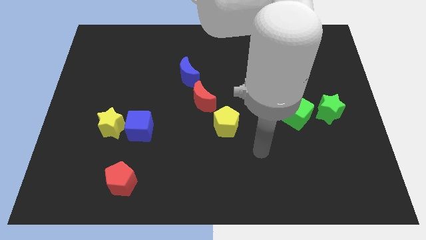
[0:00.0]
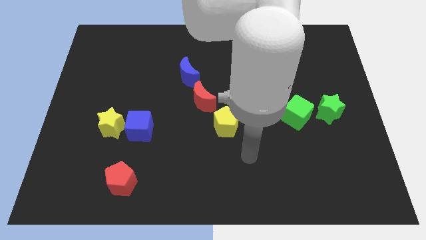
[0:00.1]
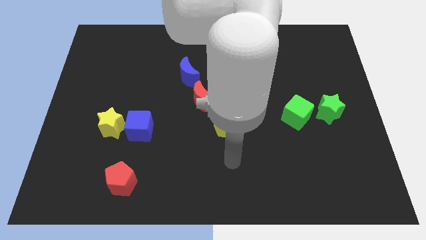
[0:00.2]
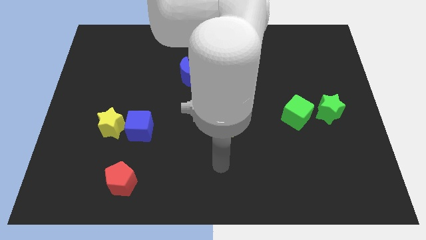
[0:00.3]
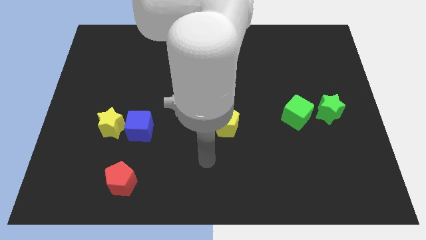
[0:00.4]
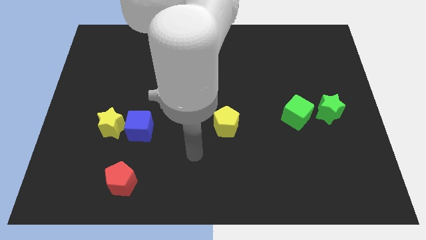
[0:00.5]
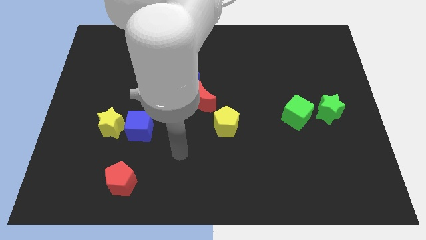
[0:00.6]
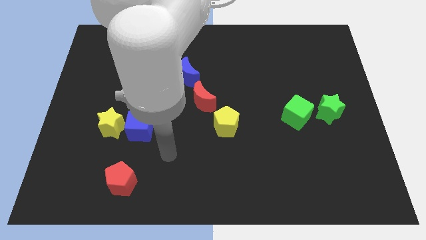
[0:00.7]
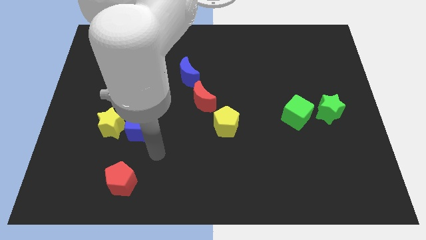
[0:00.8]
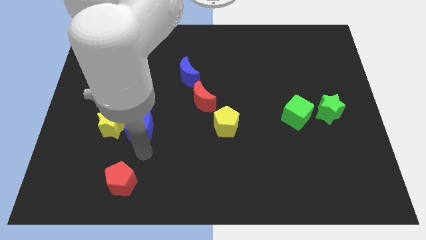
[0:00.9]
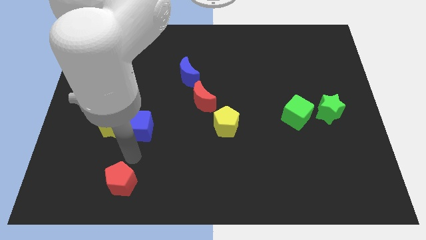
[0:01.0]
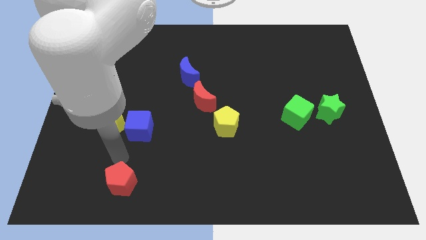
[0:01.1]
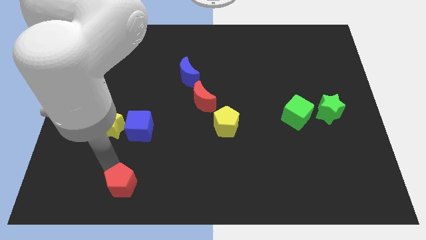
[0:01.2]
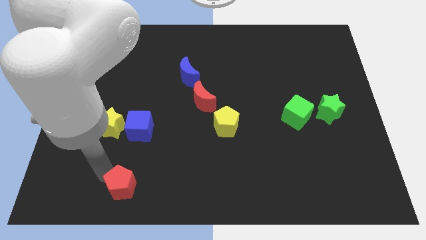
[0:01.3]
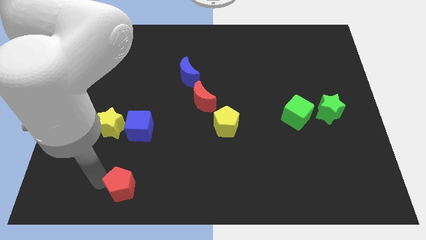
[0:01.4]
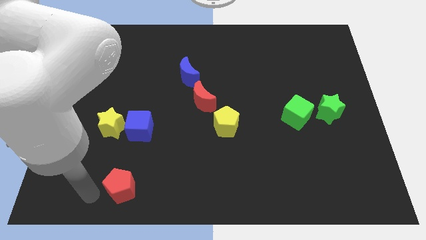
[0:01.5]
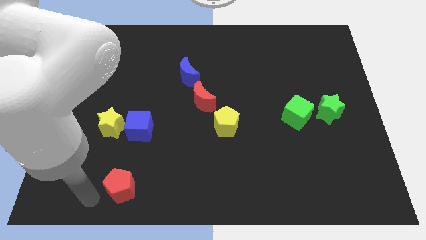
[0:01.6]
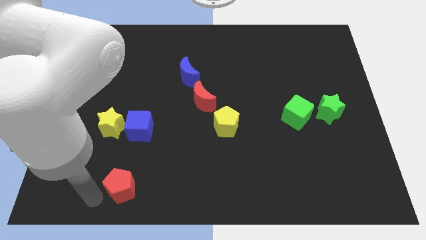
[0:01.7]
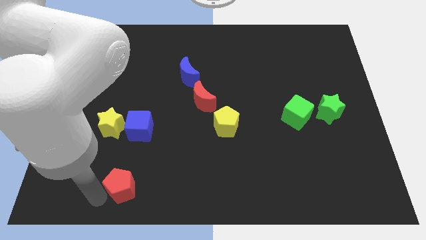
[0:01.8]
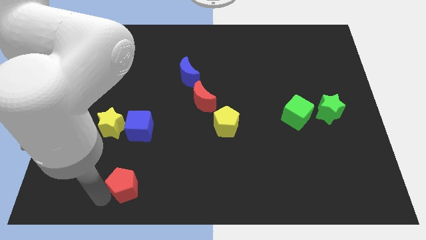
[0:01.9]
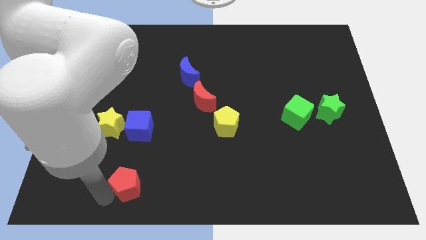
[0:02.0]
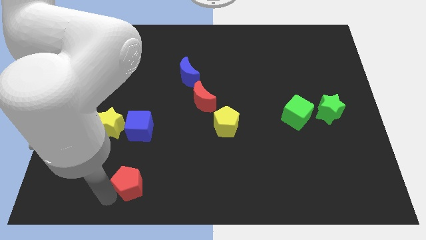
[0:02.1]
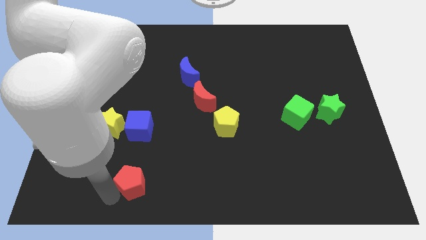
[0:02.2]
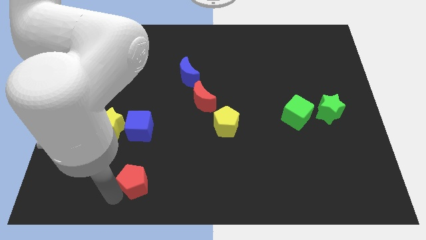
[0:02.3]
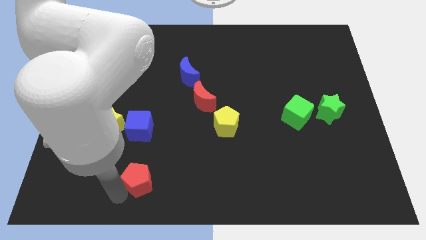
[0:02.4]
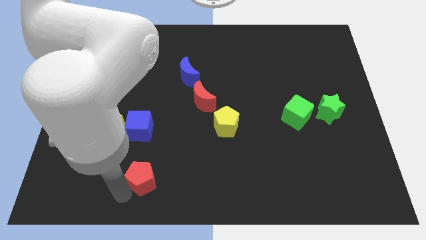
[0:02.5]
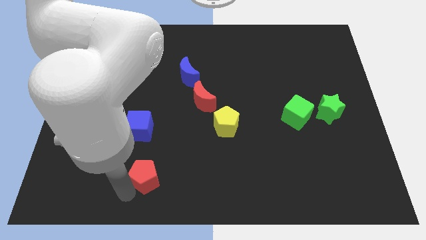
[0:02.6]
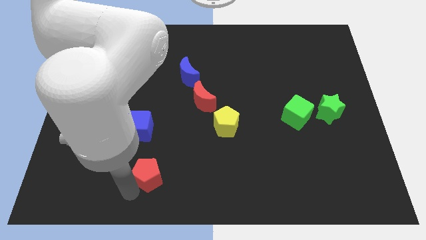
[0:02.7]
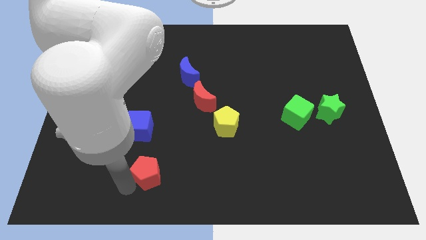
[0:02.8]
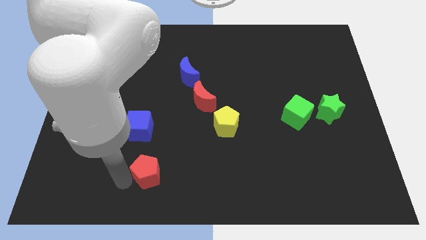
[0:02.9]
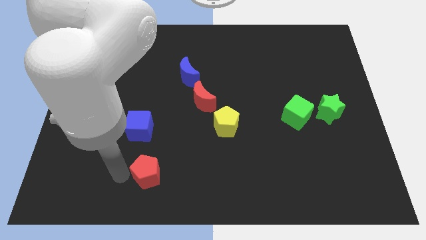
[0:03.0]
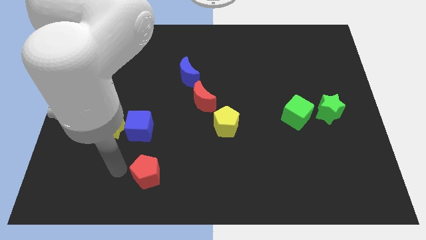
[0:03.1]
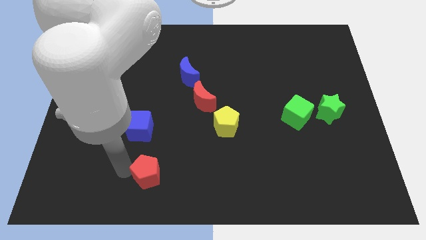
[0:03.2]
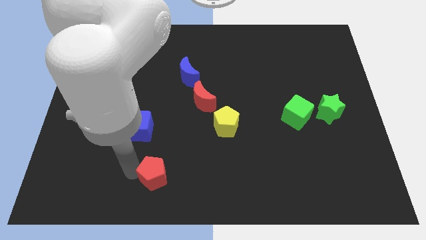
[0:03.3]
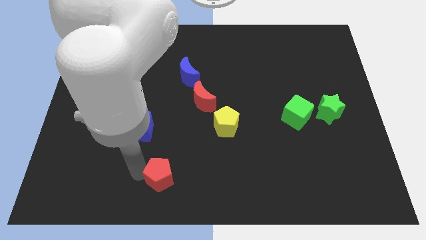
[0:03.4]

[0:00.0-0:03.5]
slide the red pentagon slightly to the right

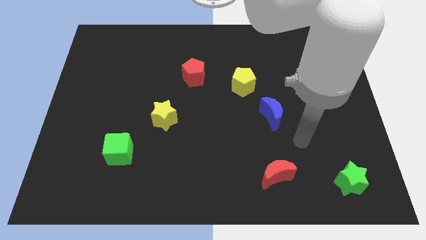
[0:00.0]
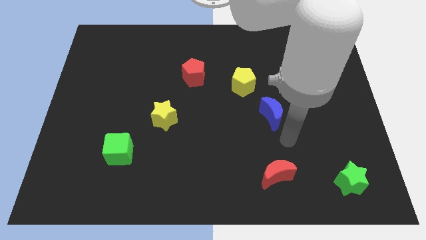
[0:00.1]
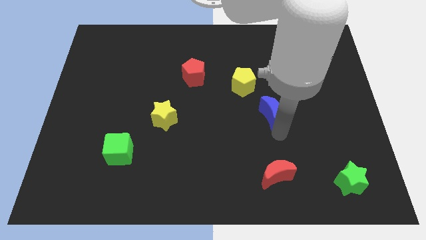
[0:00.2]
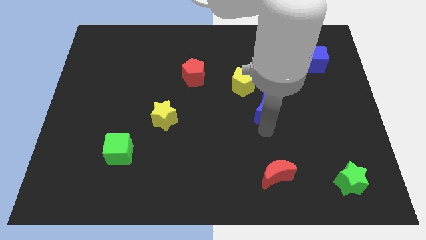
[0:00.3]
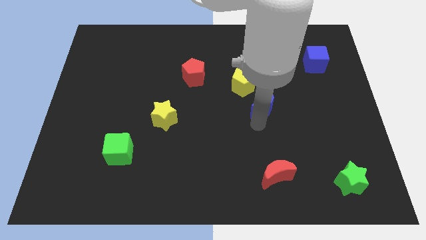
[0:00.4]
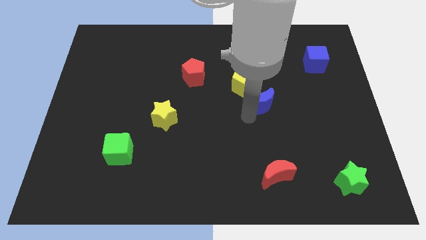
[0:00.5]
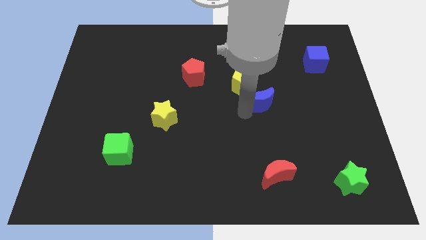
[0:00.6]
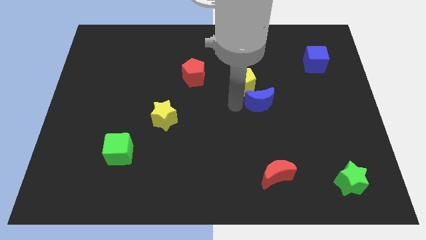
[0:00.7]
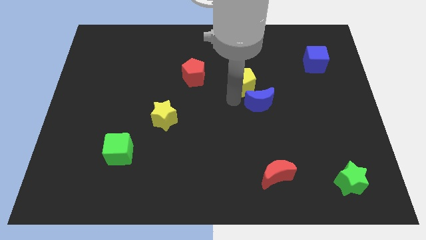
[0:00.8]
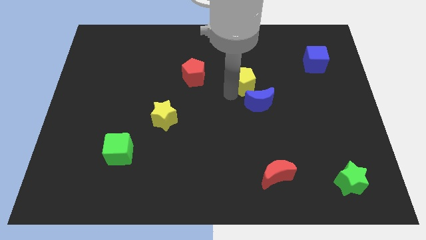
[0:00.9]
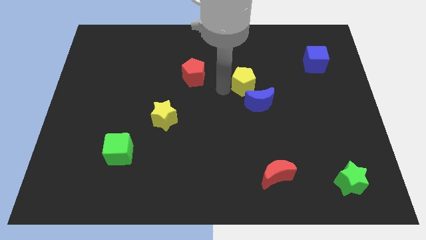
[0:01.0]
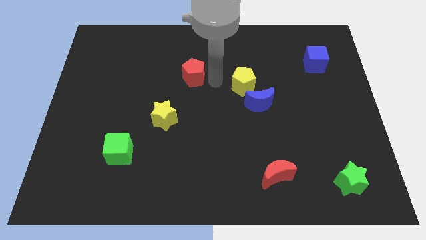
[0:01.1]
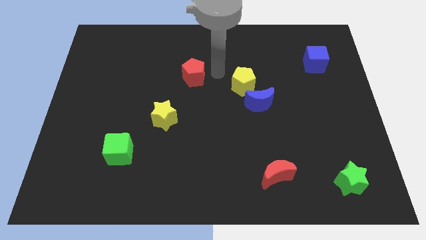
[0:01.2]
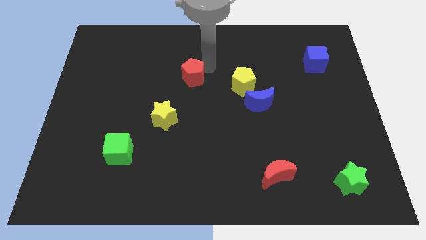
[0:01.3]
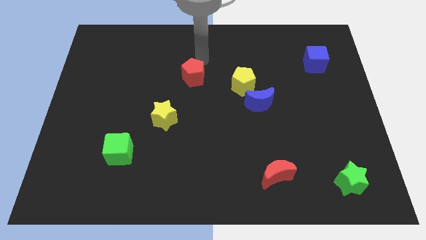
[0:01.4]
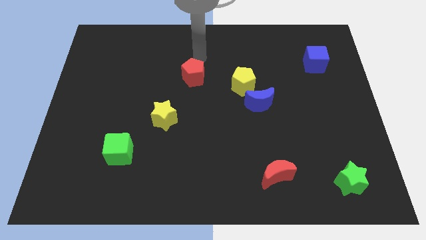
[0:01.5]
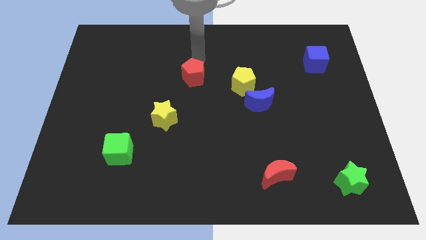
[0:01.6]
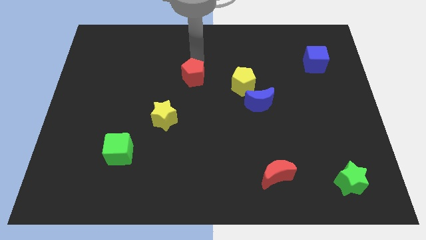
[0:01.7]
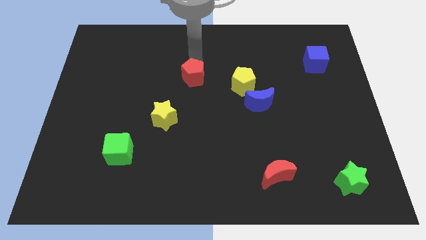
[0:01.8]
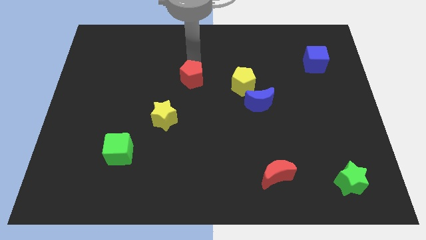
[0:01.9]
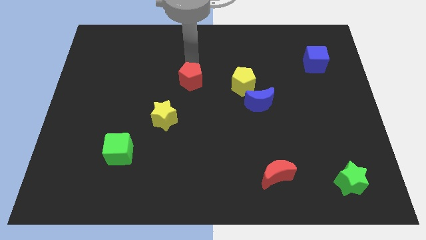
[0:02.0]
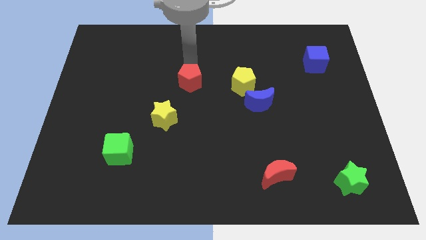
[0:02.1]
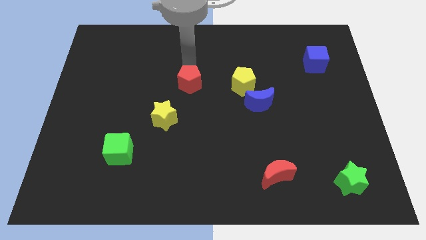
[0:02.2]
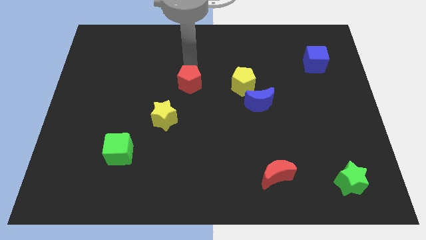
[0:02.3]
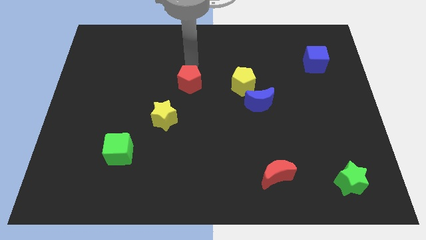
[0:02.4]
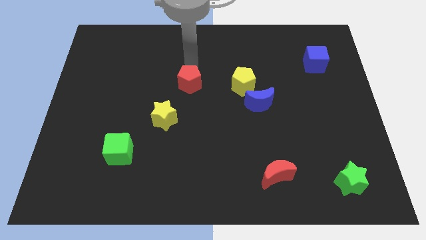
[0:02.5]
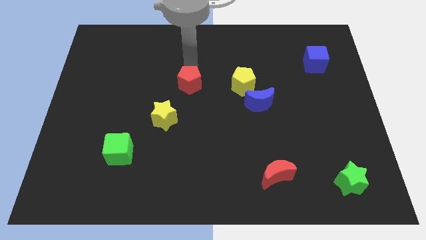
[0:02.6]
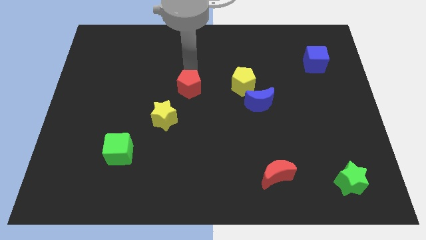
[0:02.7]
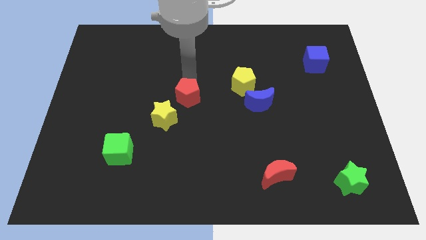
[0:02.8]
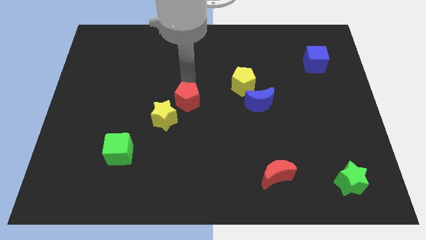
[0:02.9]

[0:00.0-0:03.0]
move the red pentagon down somewhat

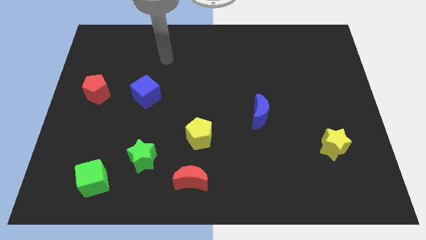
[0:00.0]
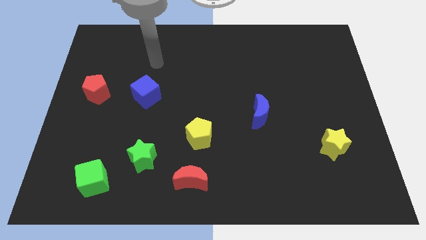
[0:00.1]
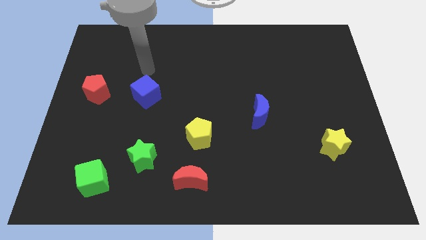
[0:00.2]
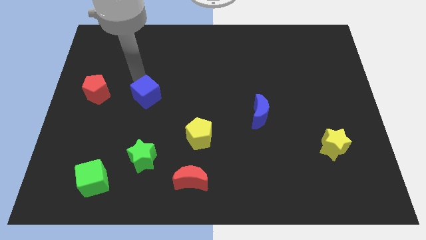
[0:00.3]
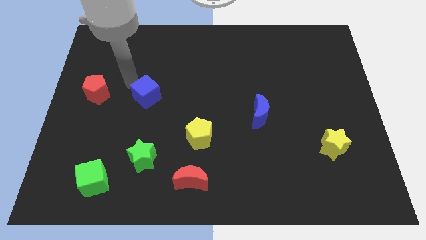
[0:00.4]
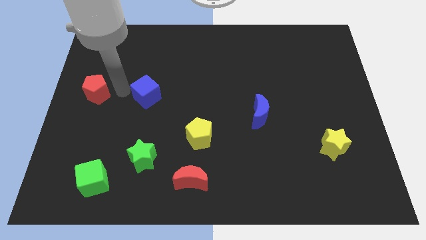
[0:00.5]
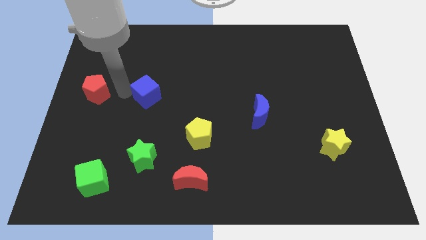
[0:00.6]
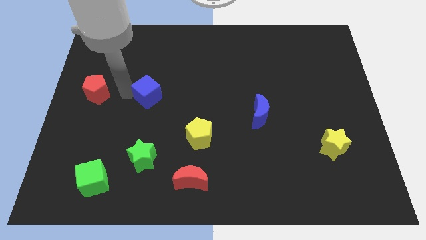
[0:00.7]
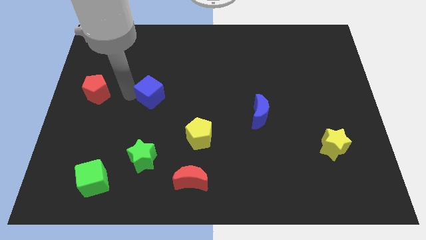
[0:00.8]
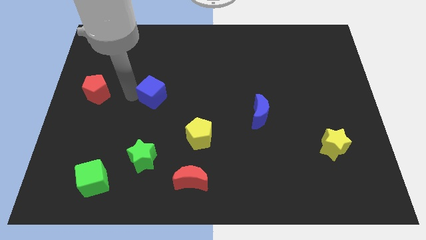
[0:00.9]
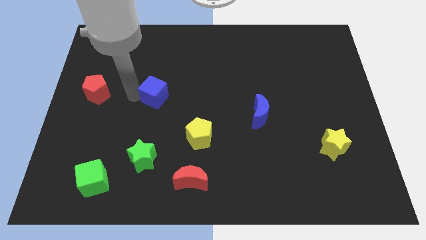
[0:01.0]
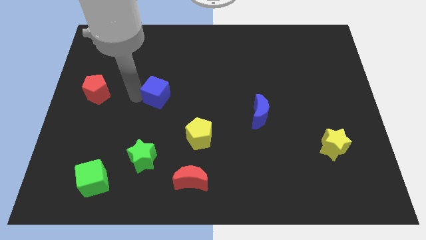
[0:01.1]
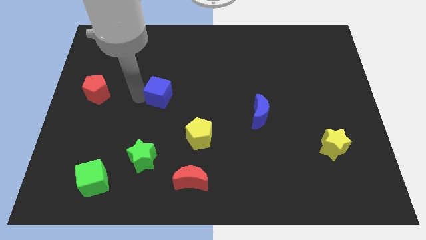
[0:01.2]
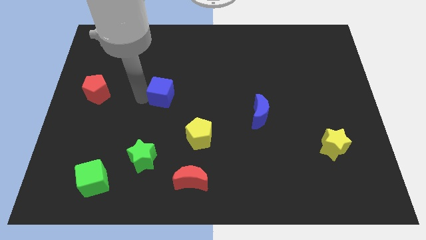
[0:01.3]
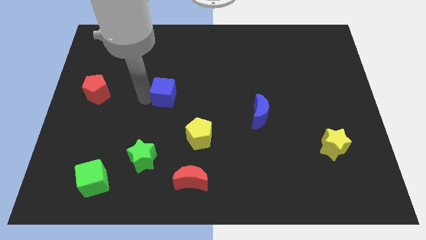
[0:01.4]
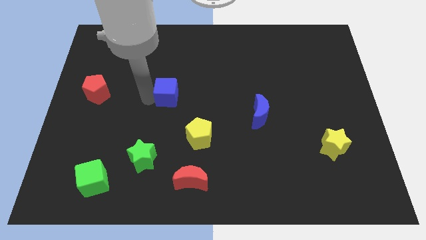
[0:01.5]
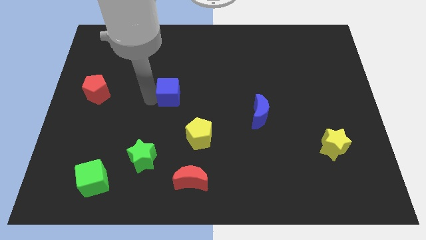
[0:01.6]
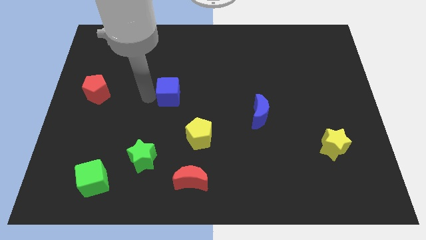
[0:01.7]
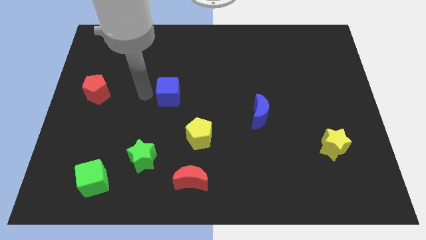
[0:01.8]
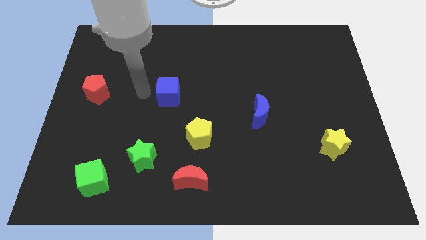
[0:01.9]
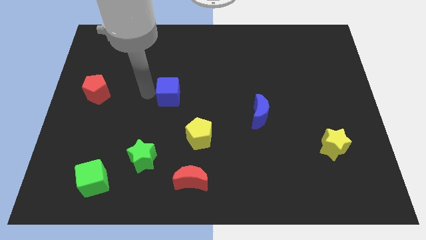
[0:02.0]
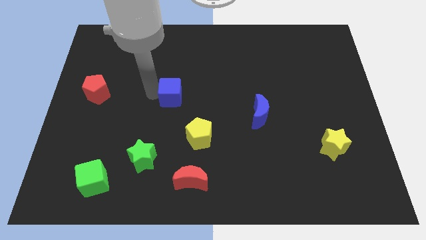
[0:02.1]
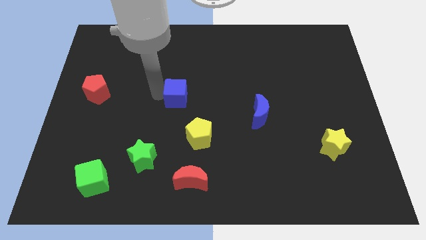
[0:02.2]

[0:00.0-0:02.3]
slightly move the blue cube right
